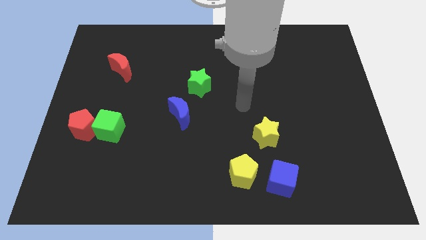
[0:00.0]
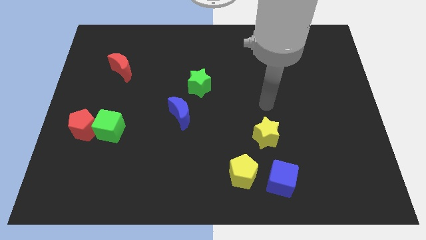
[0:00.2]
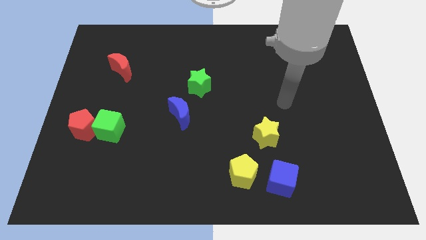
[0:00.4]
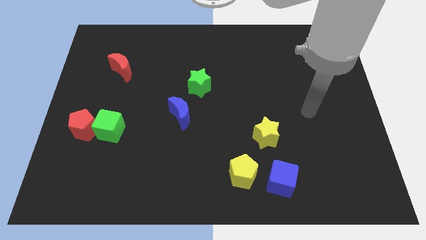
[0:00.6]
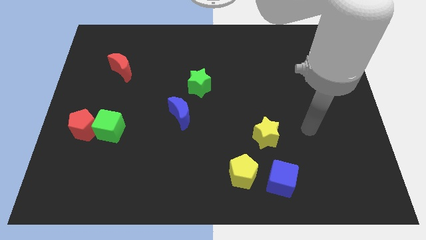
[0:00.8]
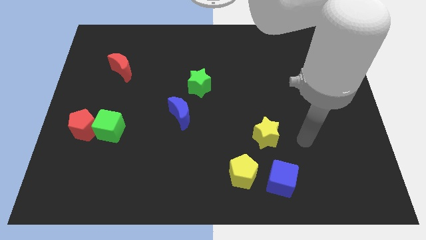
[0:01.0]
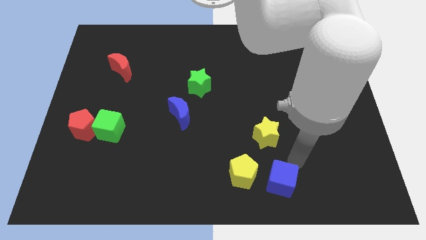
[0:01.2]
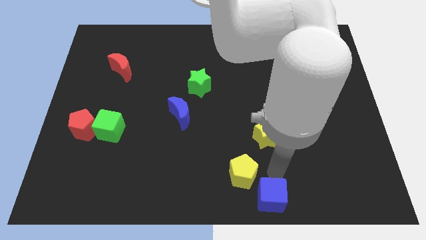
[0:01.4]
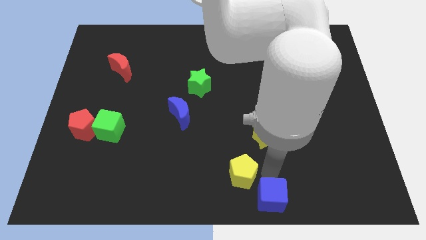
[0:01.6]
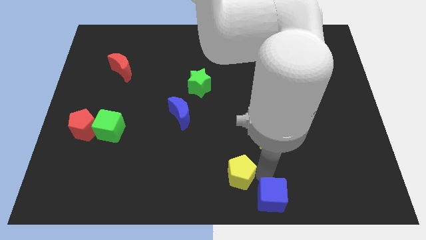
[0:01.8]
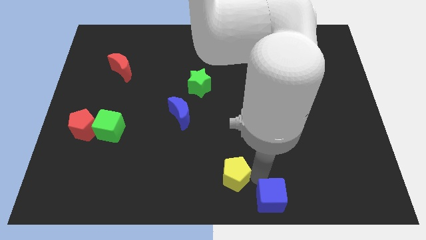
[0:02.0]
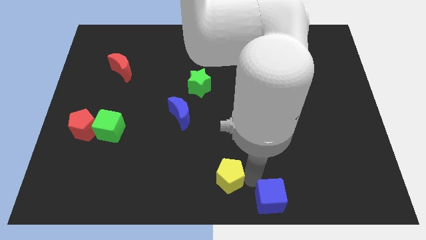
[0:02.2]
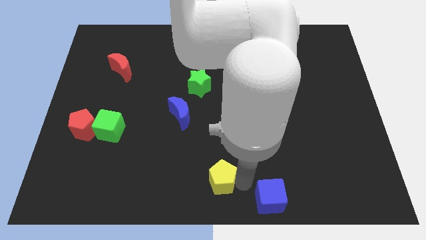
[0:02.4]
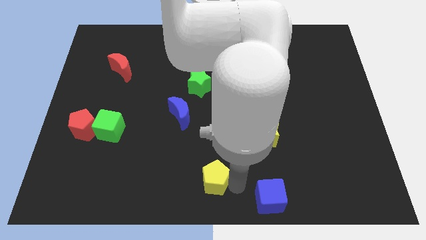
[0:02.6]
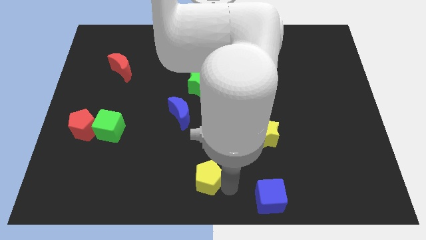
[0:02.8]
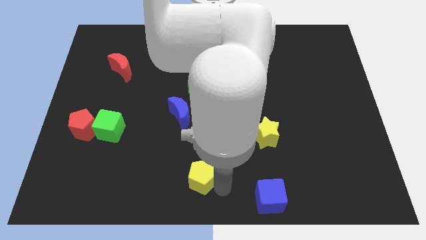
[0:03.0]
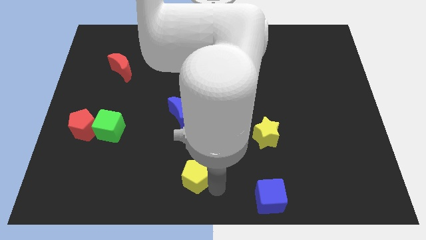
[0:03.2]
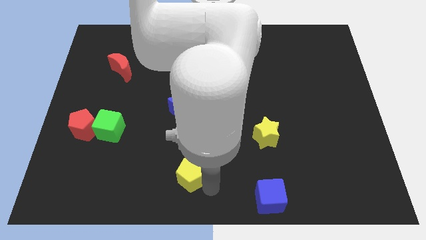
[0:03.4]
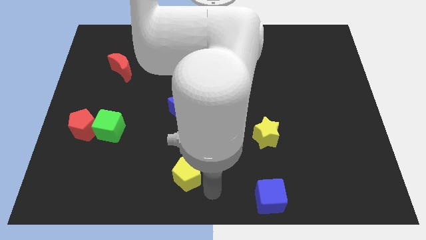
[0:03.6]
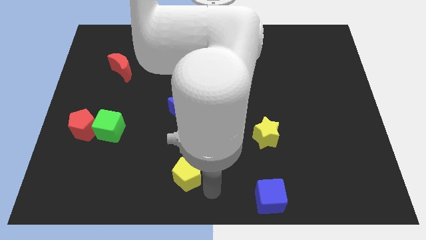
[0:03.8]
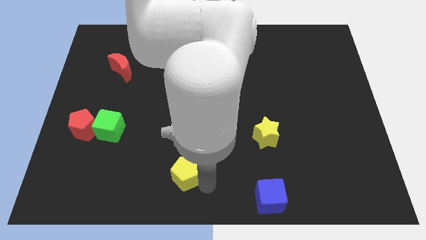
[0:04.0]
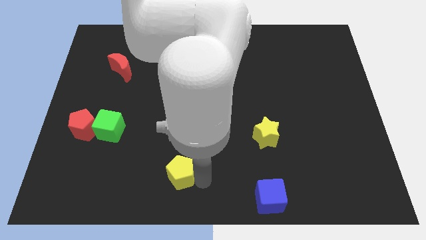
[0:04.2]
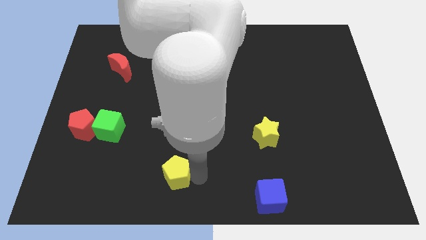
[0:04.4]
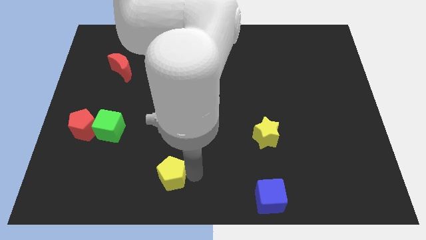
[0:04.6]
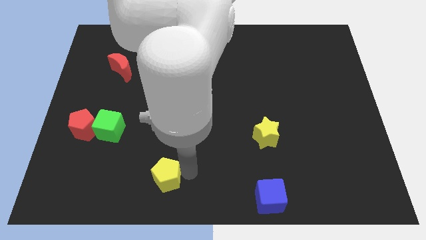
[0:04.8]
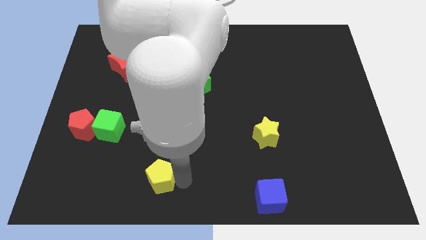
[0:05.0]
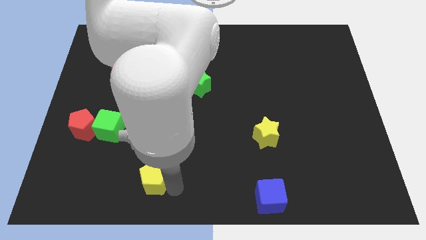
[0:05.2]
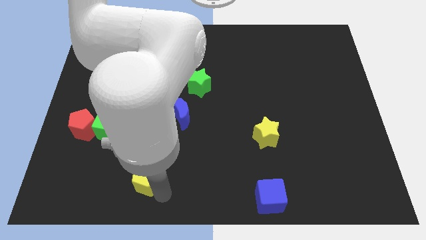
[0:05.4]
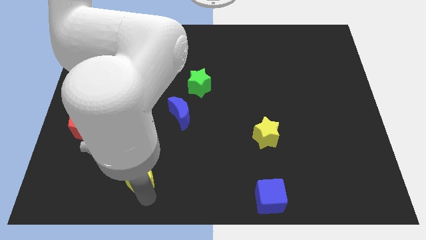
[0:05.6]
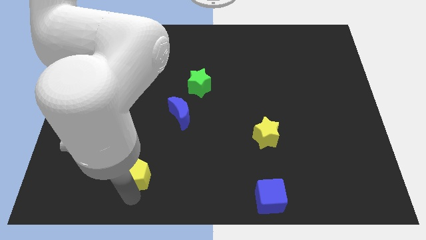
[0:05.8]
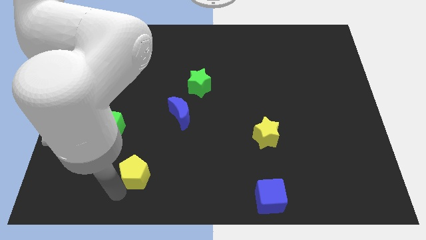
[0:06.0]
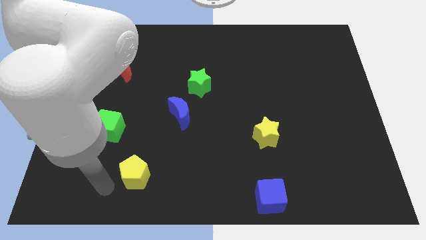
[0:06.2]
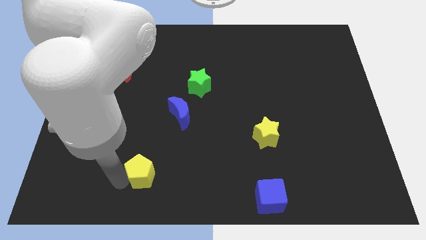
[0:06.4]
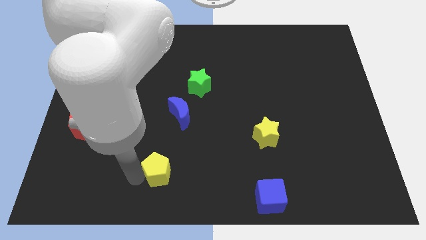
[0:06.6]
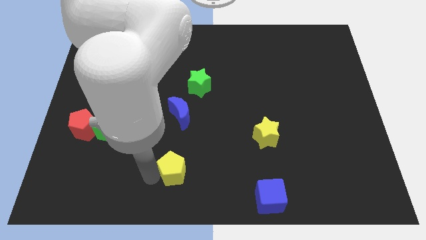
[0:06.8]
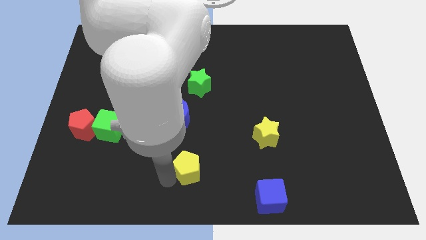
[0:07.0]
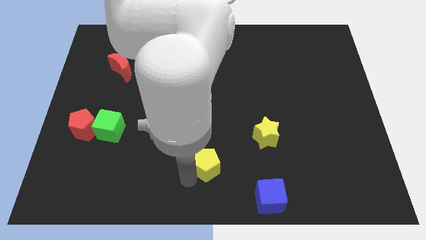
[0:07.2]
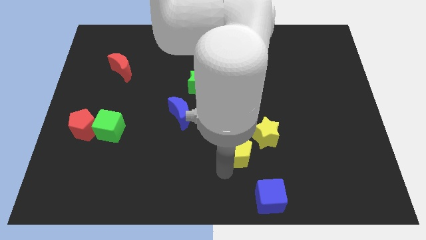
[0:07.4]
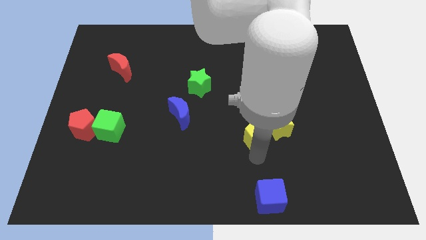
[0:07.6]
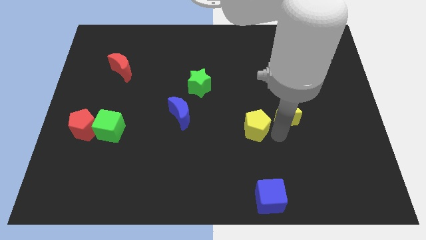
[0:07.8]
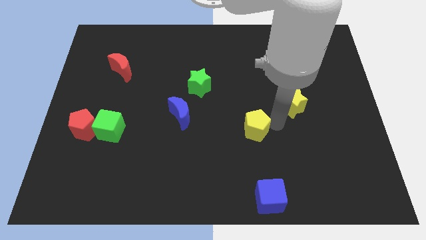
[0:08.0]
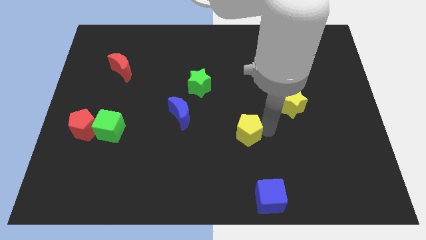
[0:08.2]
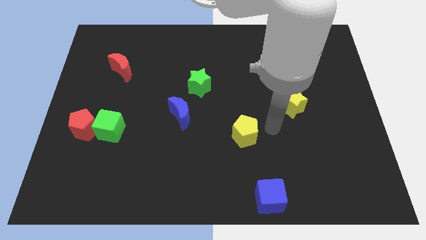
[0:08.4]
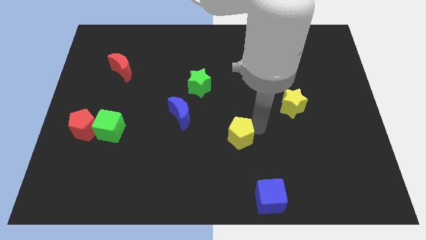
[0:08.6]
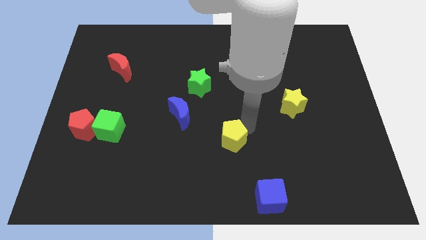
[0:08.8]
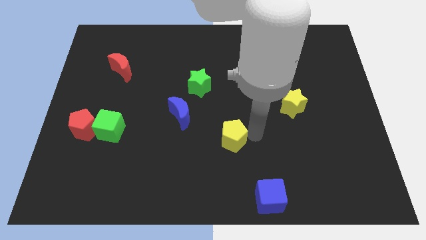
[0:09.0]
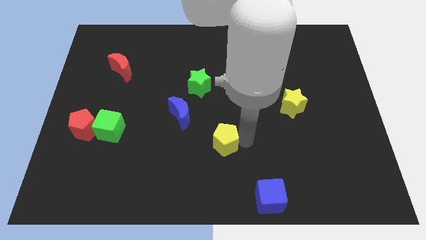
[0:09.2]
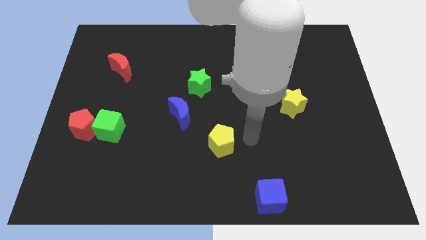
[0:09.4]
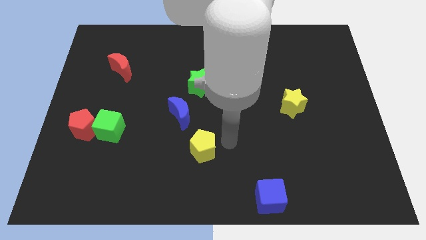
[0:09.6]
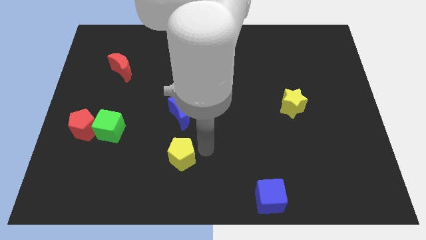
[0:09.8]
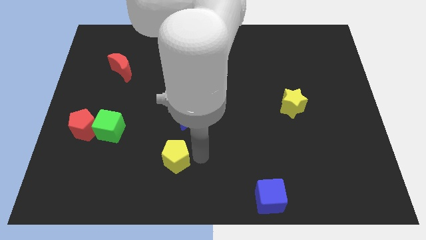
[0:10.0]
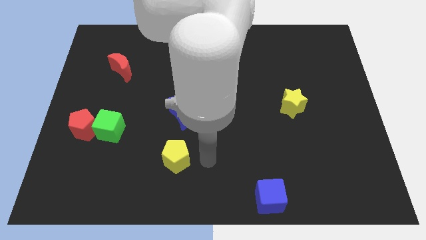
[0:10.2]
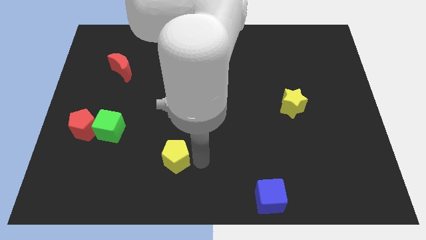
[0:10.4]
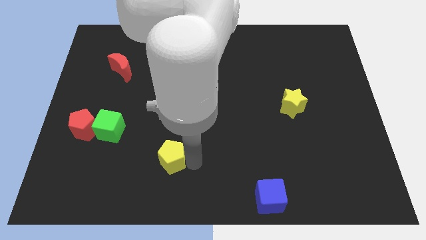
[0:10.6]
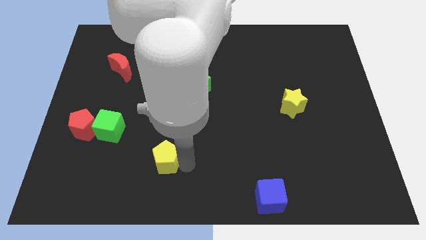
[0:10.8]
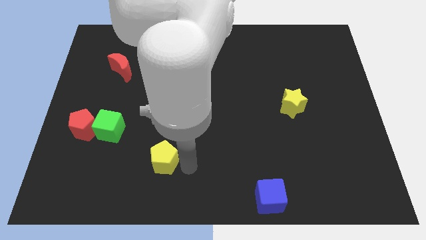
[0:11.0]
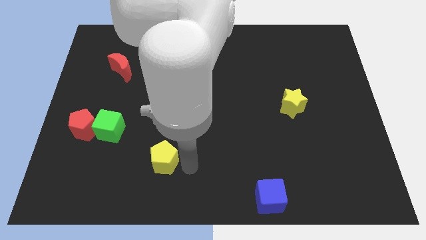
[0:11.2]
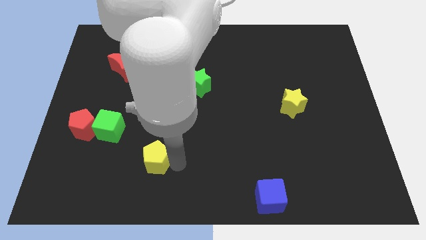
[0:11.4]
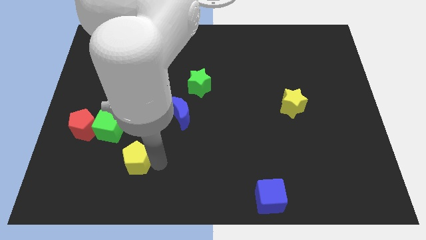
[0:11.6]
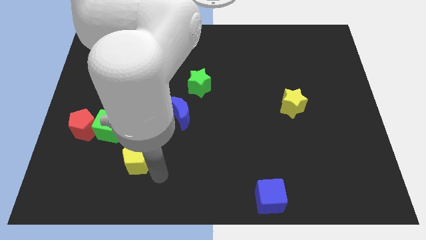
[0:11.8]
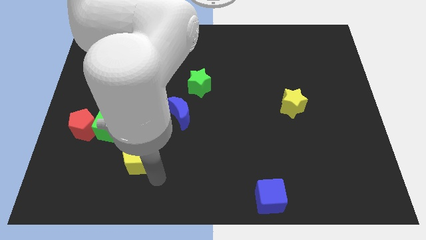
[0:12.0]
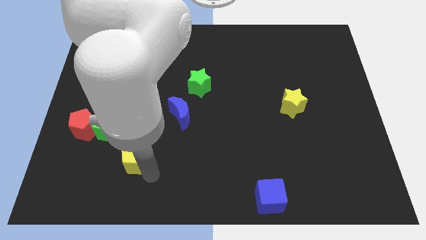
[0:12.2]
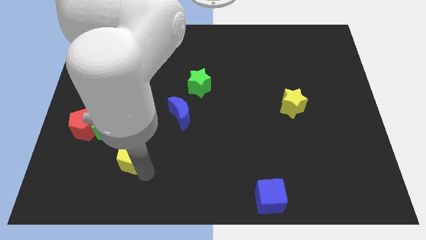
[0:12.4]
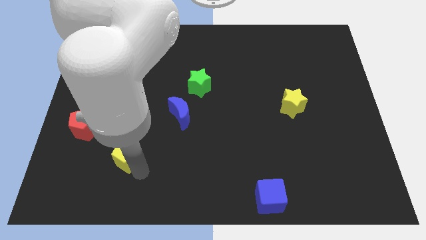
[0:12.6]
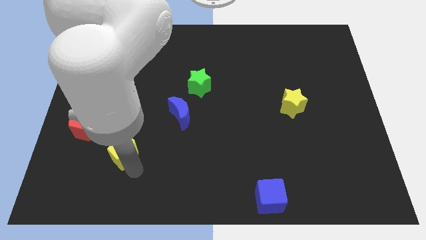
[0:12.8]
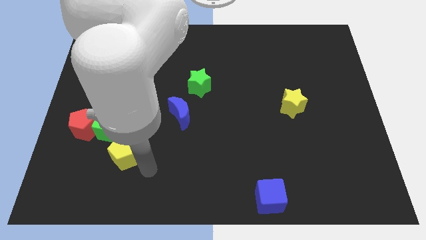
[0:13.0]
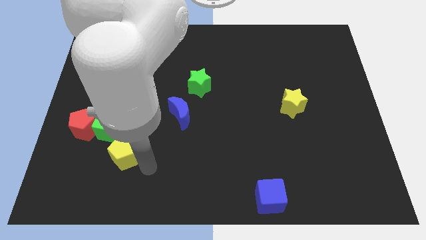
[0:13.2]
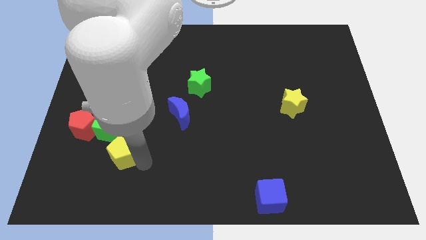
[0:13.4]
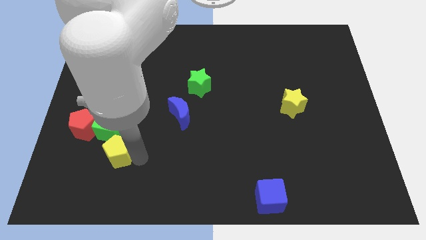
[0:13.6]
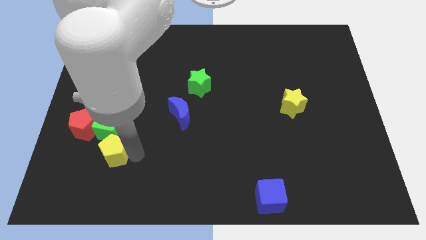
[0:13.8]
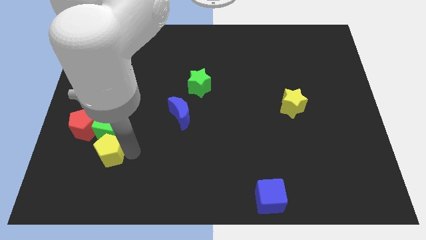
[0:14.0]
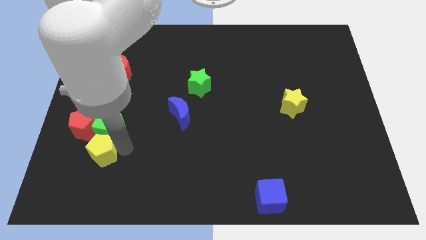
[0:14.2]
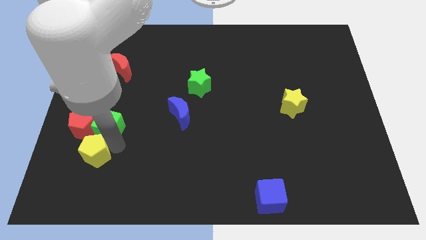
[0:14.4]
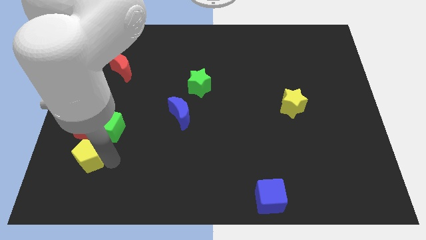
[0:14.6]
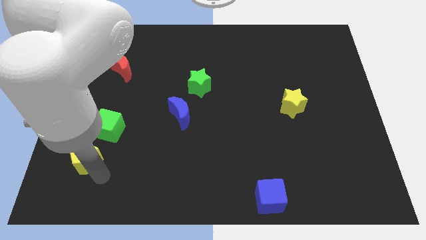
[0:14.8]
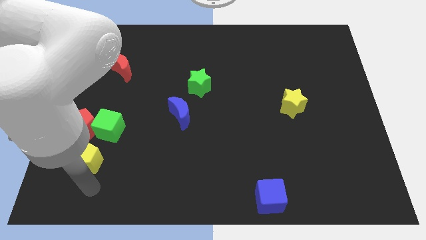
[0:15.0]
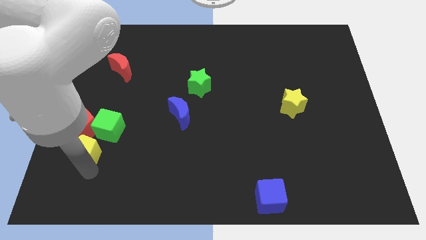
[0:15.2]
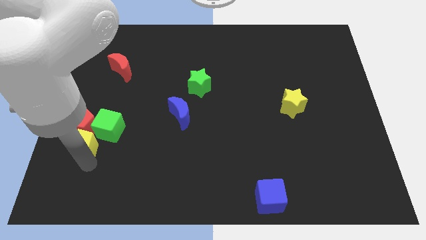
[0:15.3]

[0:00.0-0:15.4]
move the yellow pentagon next to the red pentagon
